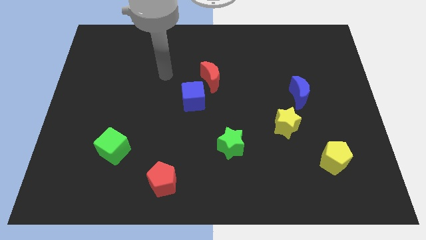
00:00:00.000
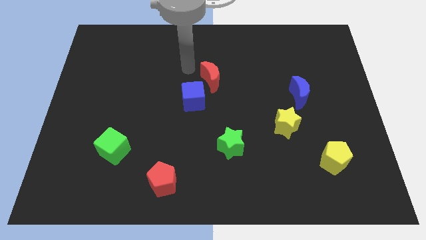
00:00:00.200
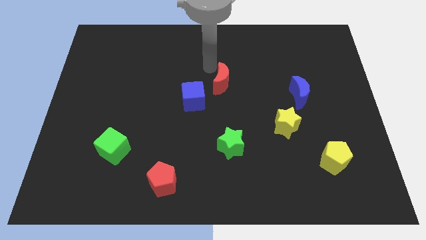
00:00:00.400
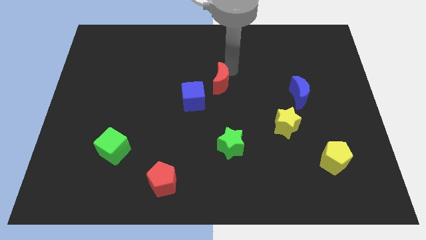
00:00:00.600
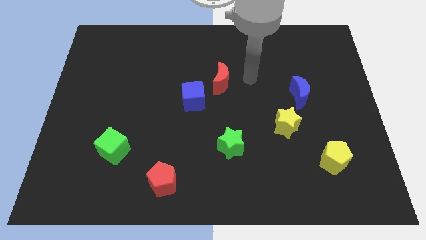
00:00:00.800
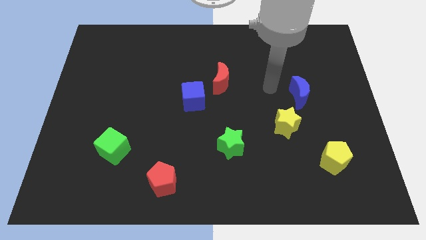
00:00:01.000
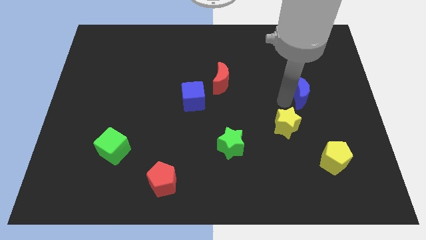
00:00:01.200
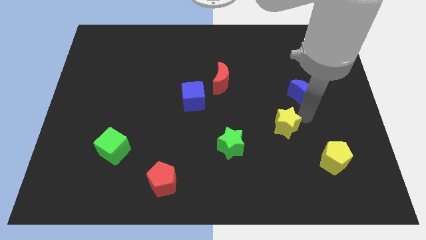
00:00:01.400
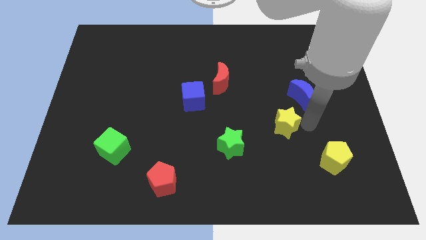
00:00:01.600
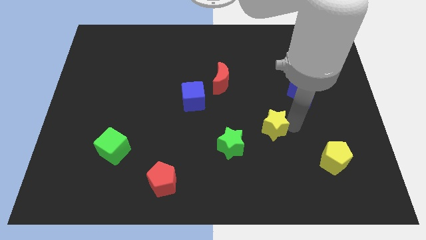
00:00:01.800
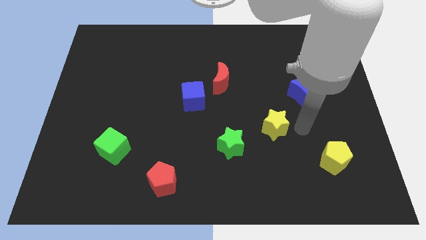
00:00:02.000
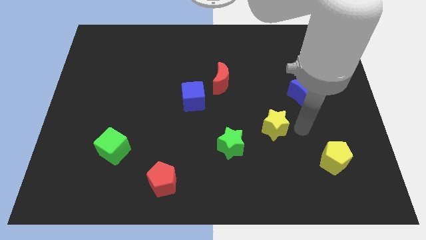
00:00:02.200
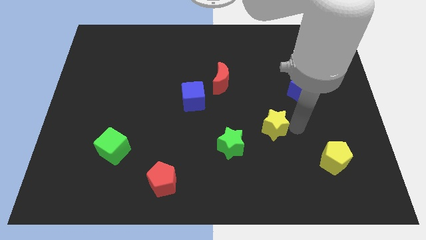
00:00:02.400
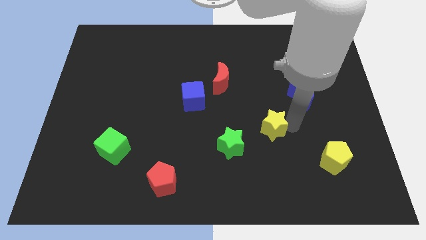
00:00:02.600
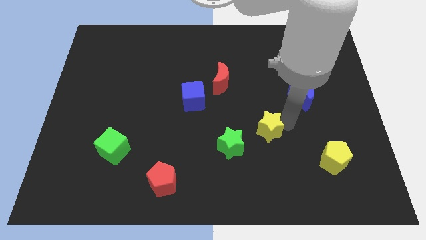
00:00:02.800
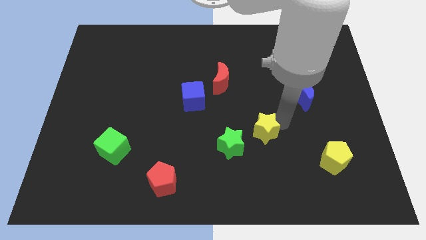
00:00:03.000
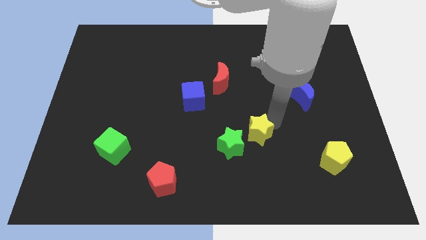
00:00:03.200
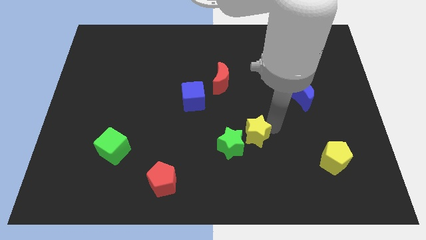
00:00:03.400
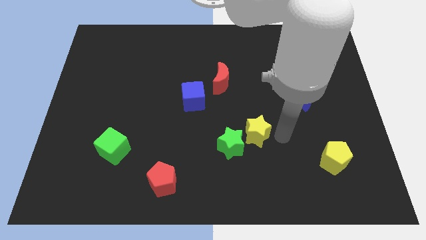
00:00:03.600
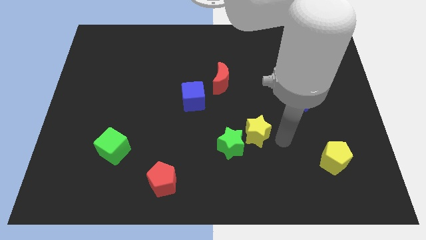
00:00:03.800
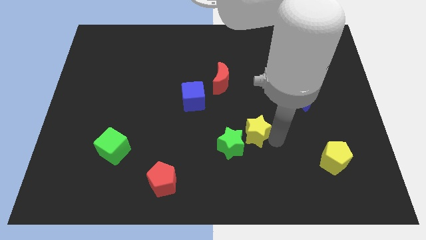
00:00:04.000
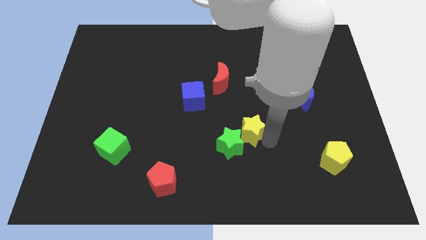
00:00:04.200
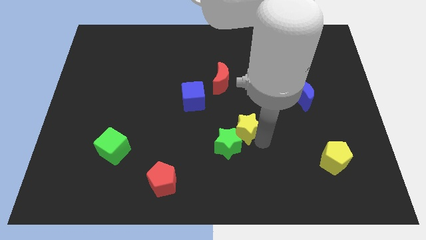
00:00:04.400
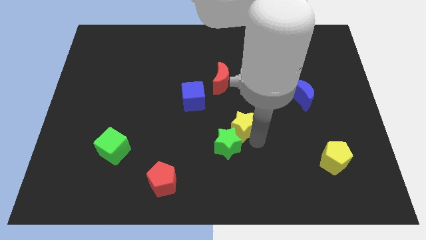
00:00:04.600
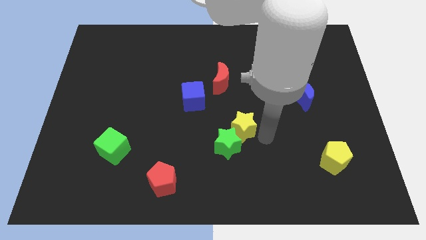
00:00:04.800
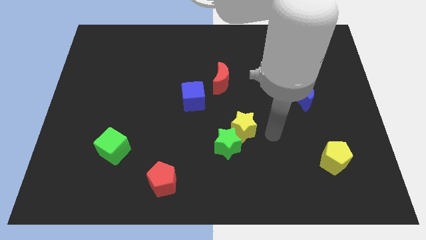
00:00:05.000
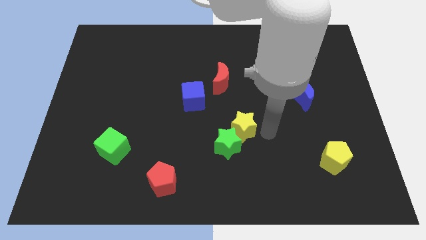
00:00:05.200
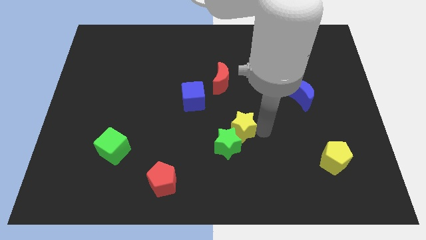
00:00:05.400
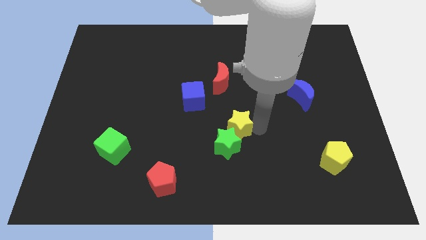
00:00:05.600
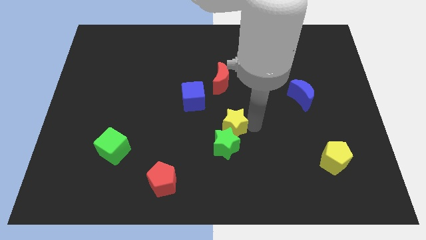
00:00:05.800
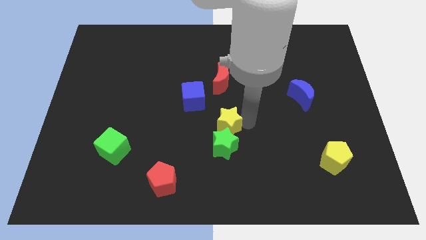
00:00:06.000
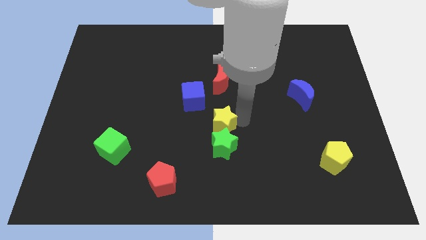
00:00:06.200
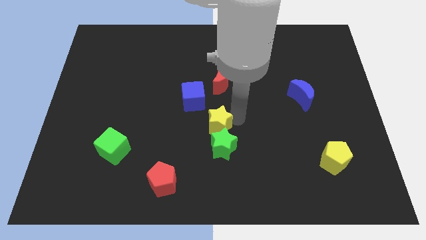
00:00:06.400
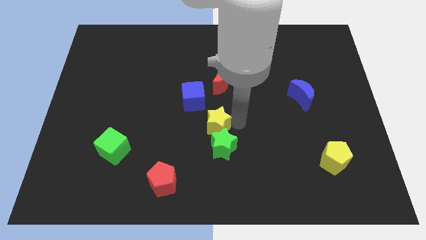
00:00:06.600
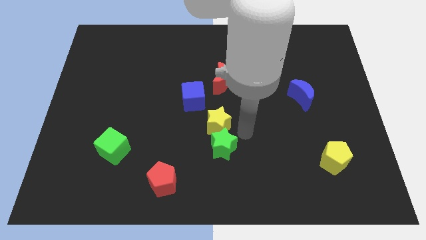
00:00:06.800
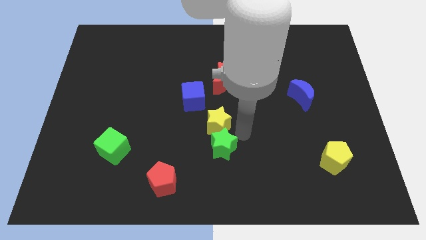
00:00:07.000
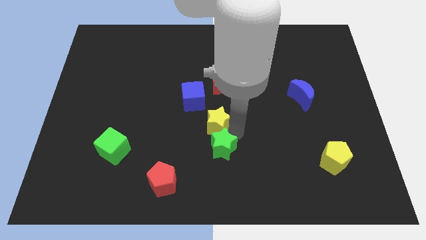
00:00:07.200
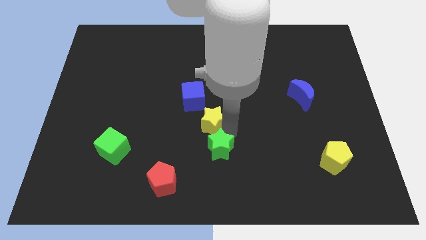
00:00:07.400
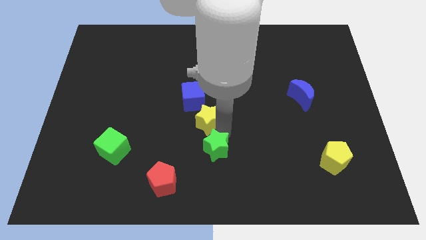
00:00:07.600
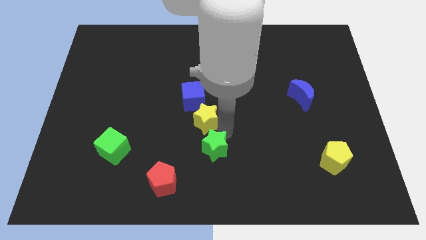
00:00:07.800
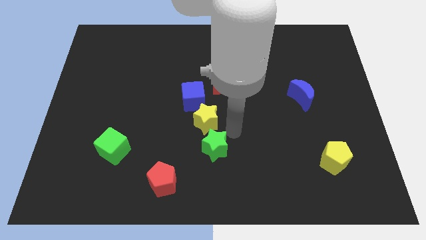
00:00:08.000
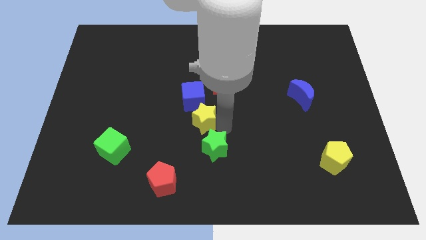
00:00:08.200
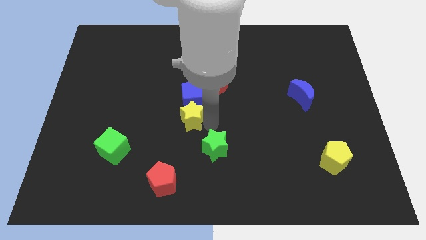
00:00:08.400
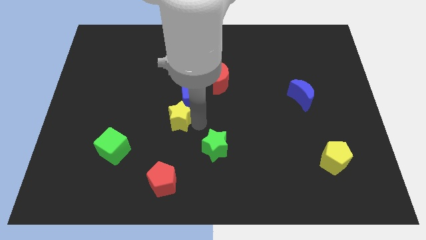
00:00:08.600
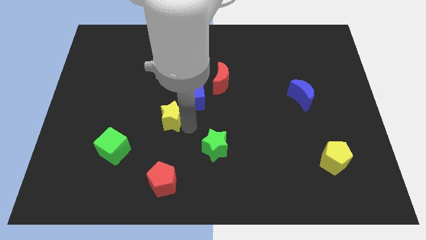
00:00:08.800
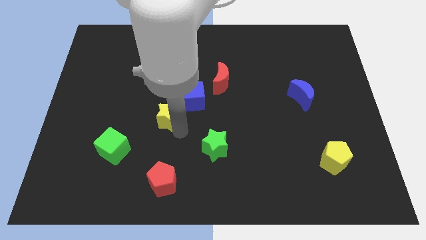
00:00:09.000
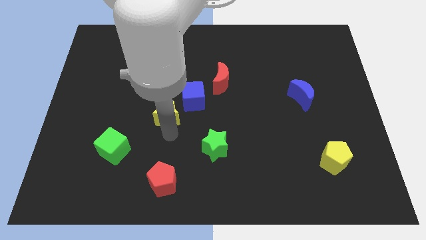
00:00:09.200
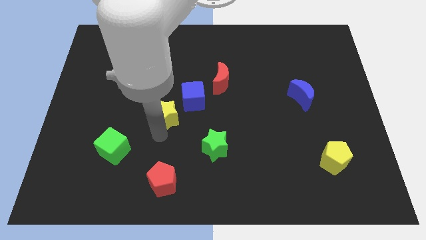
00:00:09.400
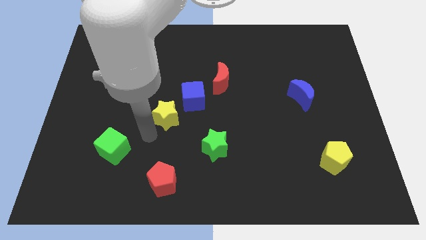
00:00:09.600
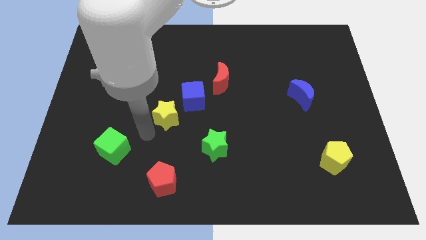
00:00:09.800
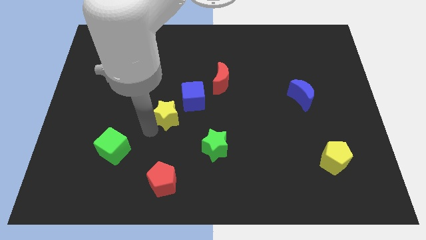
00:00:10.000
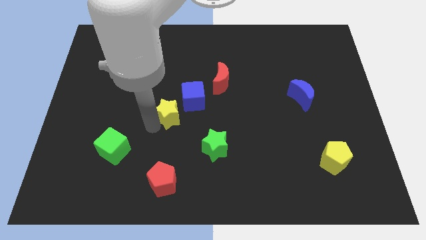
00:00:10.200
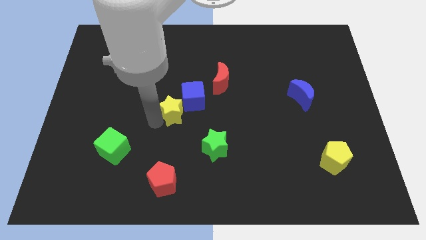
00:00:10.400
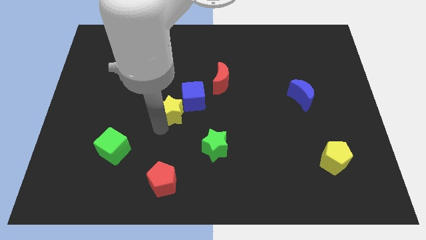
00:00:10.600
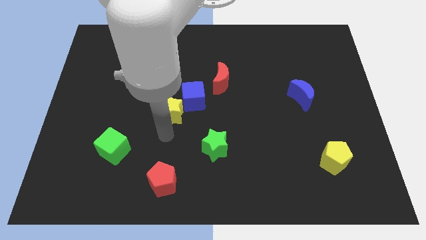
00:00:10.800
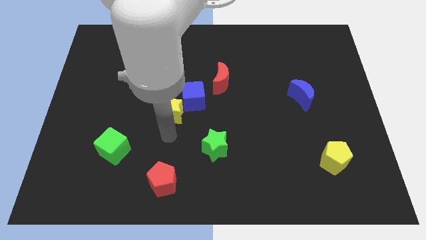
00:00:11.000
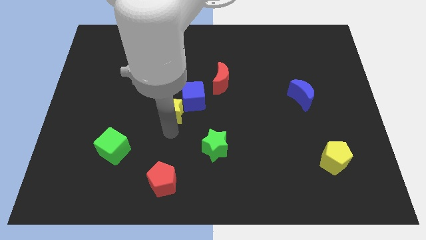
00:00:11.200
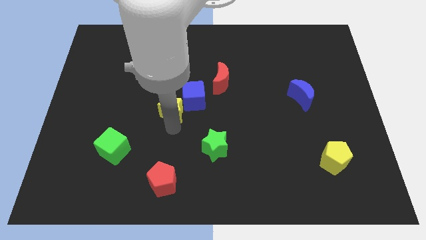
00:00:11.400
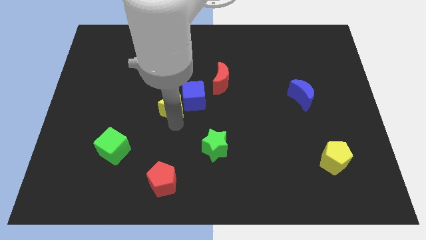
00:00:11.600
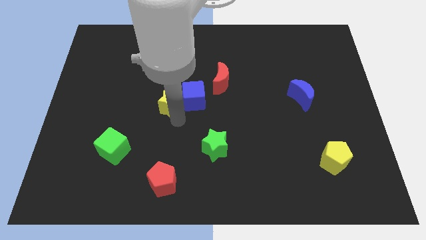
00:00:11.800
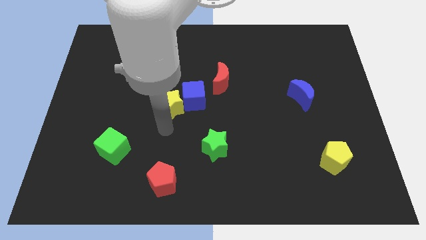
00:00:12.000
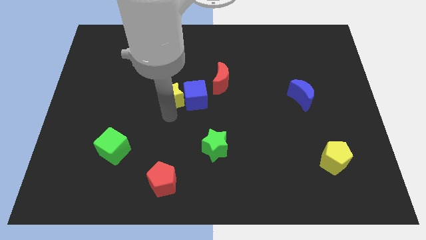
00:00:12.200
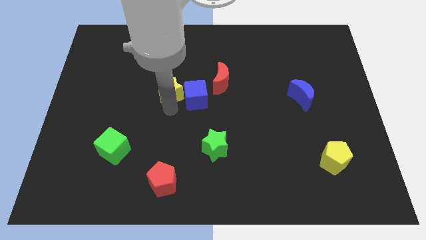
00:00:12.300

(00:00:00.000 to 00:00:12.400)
move the yellow star just left of the red moon

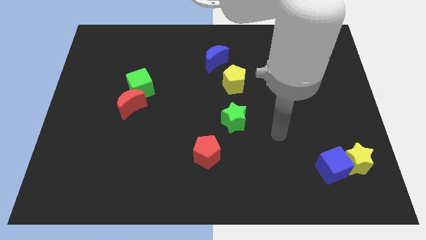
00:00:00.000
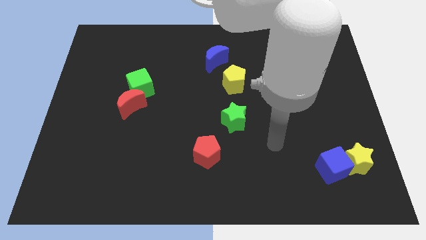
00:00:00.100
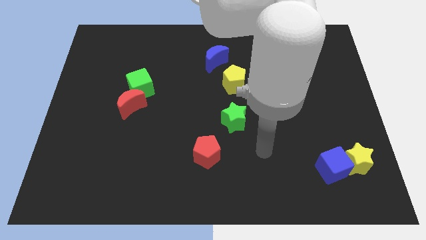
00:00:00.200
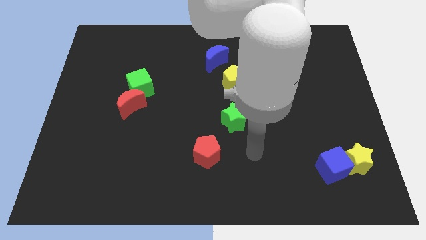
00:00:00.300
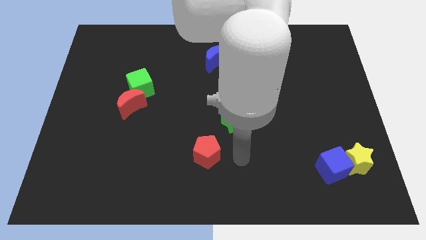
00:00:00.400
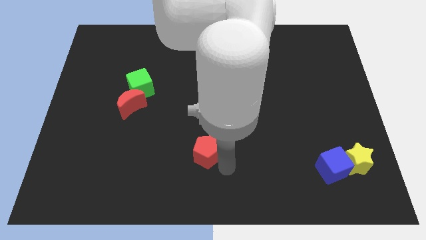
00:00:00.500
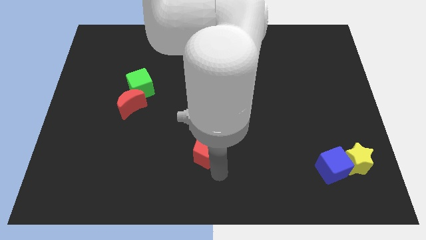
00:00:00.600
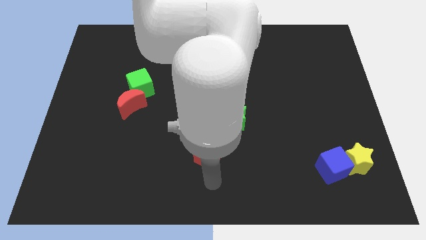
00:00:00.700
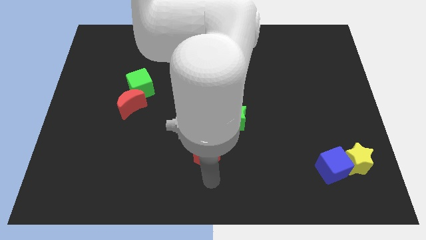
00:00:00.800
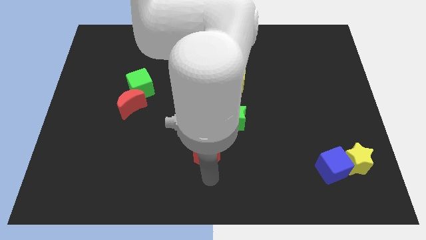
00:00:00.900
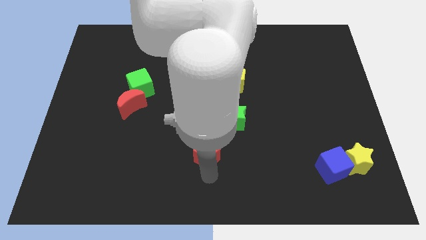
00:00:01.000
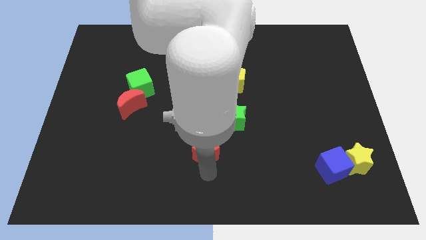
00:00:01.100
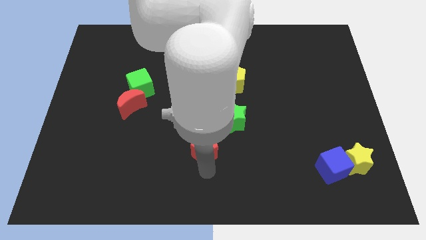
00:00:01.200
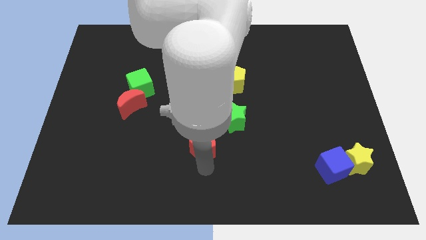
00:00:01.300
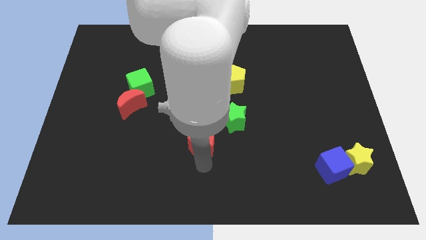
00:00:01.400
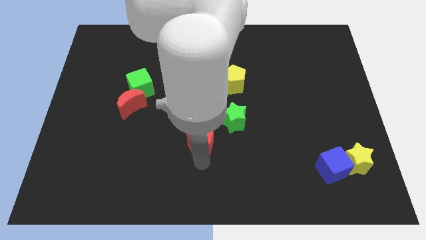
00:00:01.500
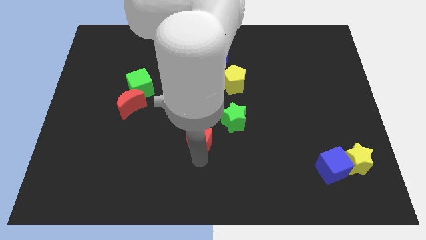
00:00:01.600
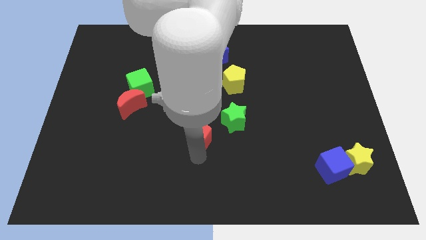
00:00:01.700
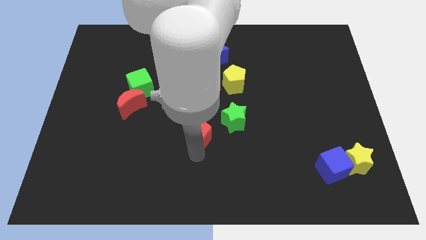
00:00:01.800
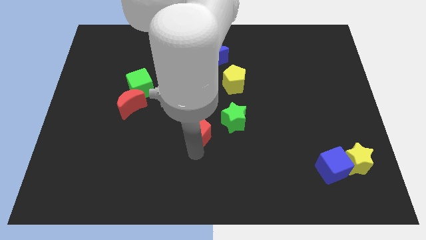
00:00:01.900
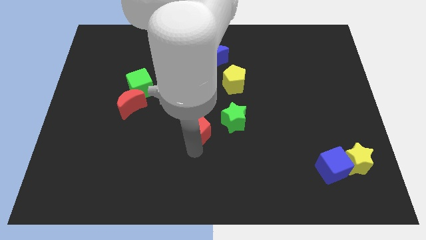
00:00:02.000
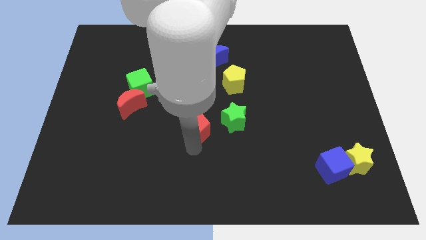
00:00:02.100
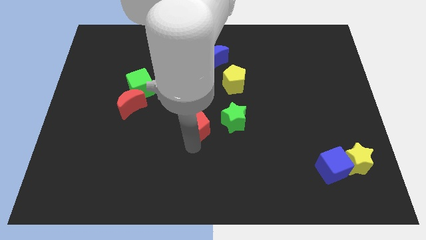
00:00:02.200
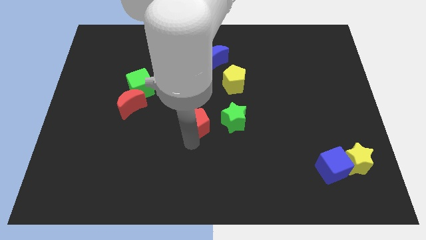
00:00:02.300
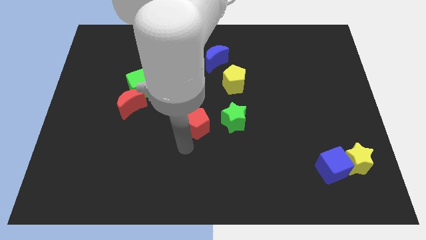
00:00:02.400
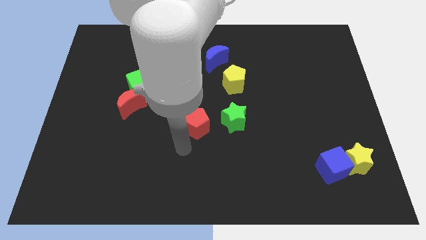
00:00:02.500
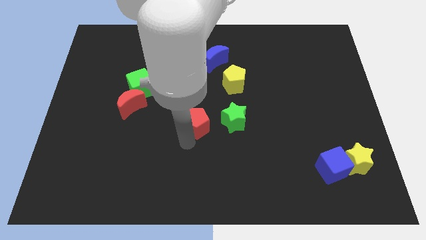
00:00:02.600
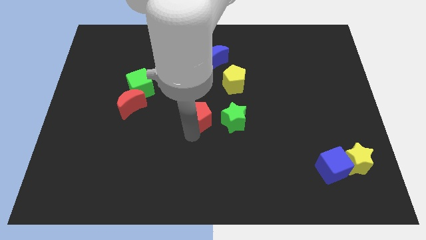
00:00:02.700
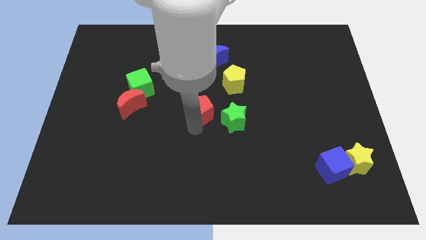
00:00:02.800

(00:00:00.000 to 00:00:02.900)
slide the red pentagon to the top left side of the green star
